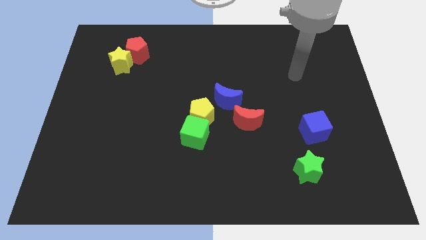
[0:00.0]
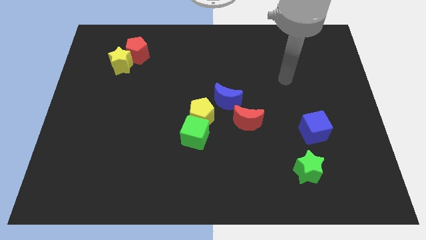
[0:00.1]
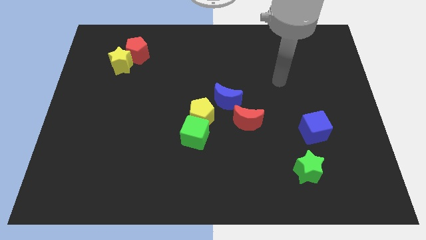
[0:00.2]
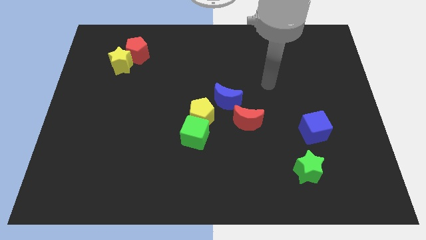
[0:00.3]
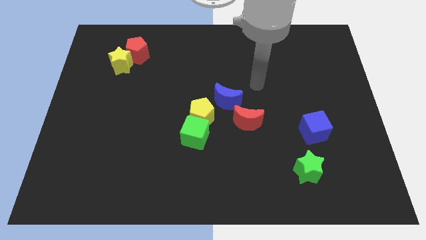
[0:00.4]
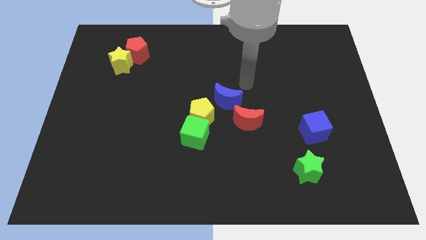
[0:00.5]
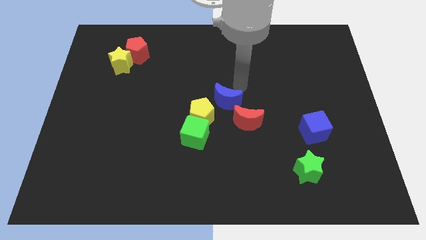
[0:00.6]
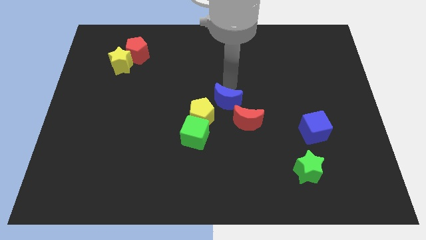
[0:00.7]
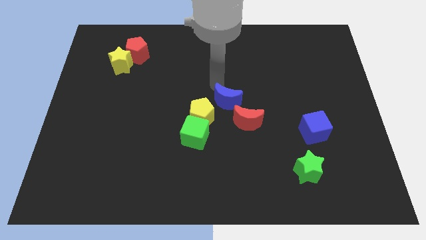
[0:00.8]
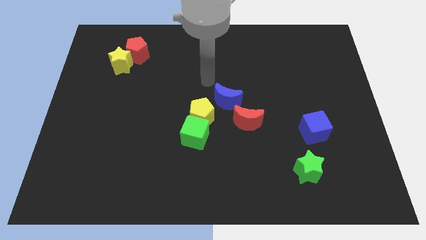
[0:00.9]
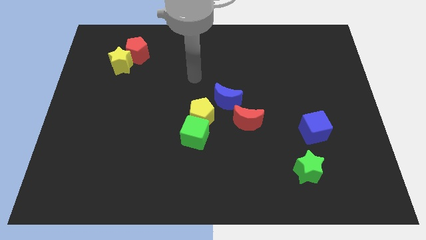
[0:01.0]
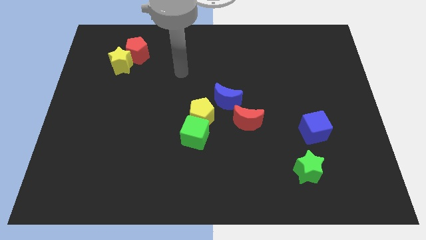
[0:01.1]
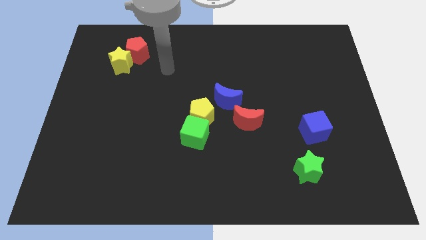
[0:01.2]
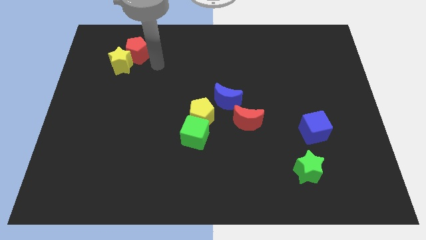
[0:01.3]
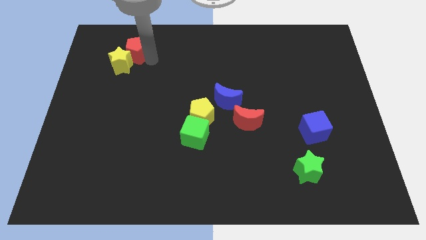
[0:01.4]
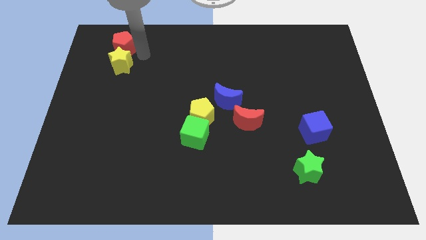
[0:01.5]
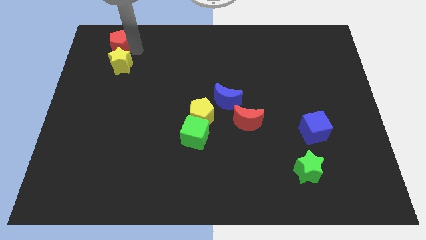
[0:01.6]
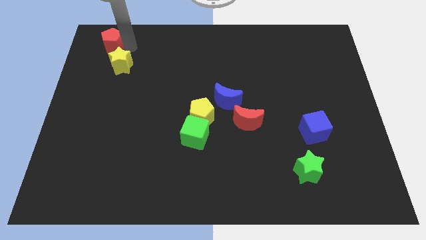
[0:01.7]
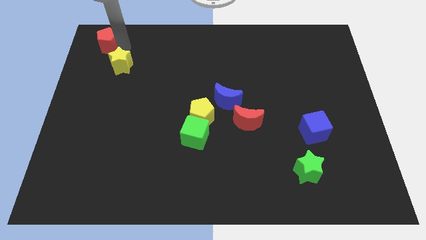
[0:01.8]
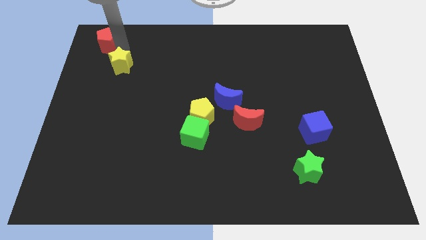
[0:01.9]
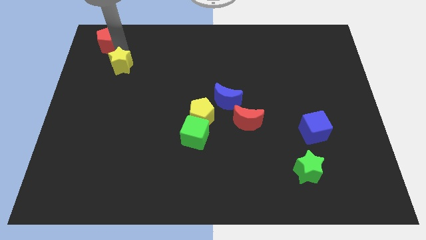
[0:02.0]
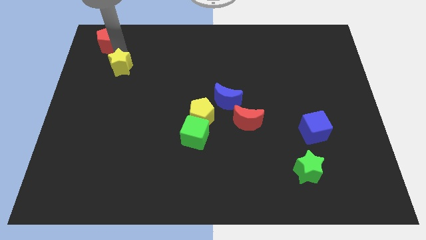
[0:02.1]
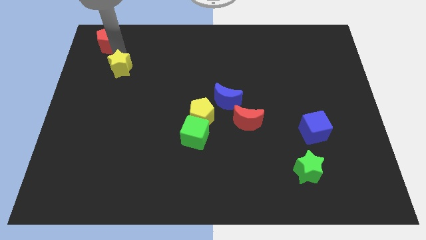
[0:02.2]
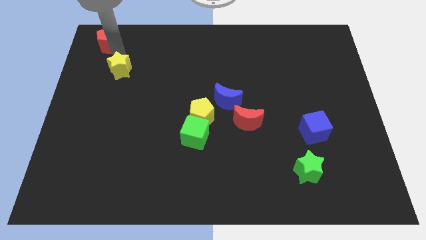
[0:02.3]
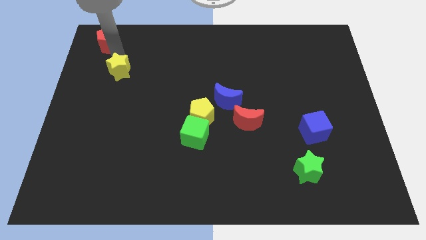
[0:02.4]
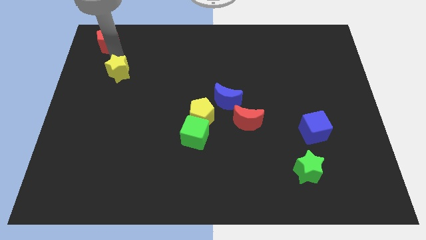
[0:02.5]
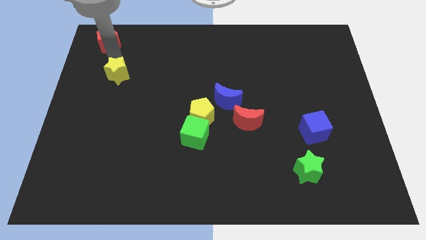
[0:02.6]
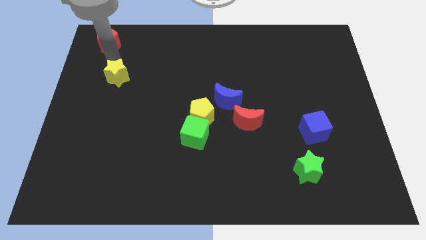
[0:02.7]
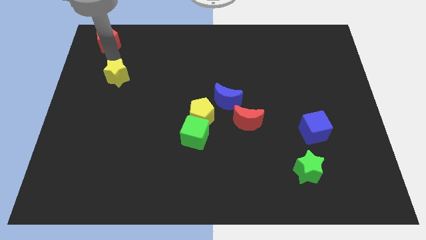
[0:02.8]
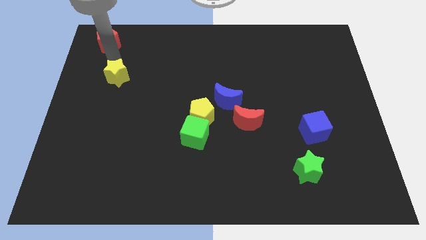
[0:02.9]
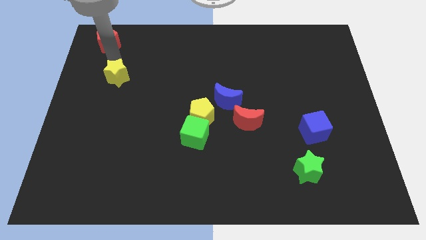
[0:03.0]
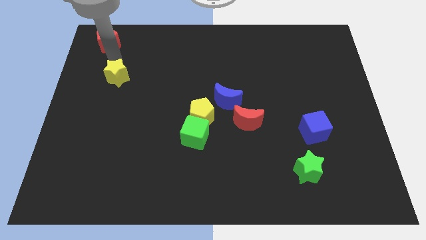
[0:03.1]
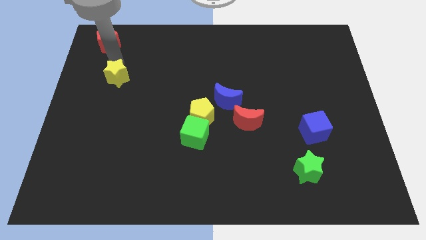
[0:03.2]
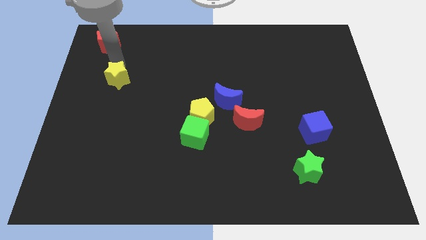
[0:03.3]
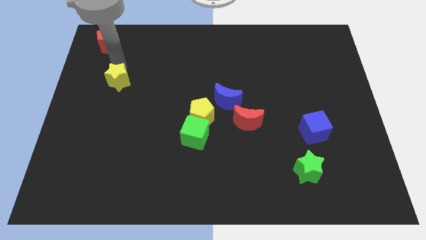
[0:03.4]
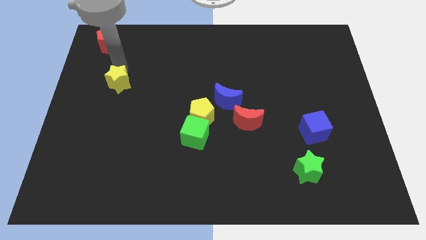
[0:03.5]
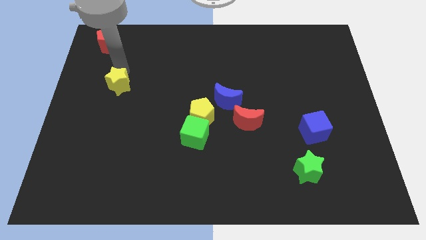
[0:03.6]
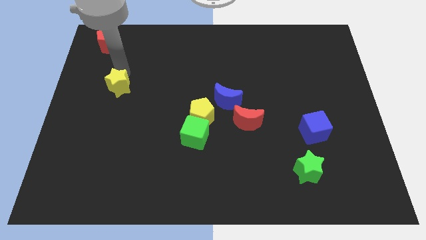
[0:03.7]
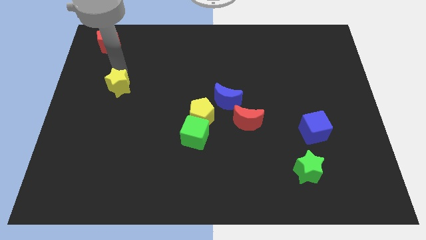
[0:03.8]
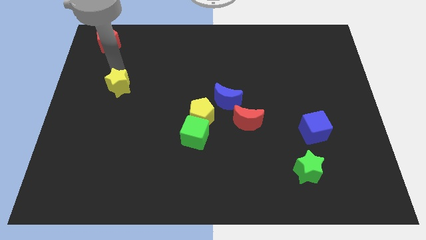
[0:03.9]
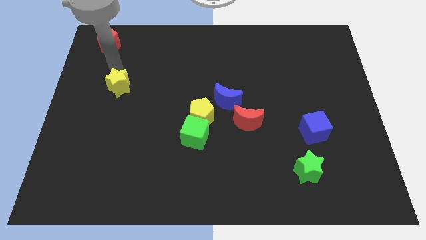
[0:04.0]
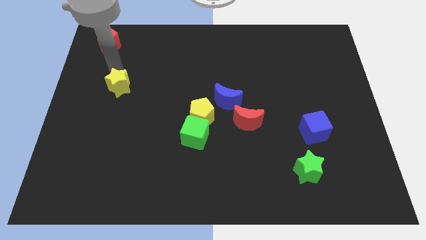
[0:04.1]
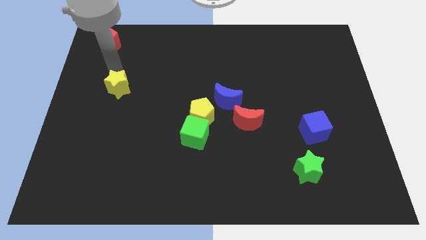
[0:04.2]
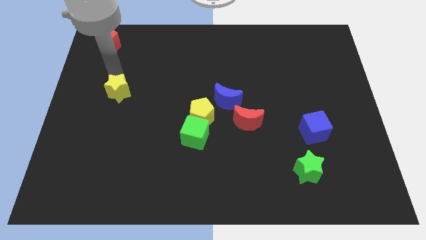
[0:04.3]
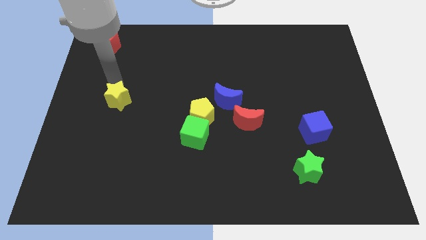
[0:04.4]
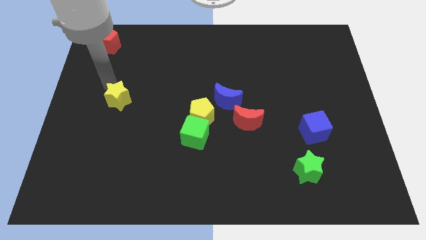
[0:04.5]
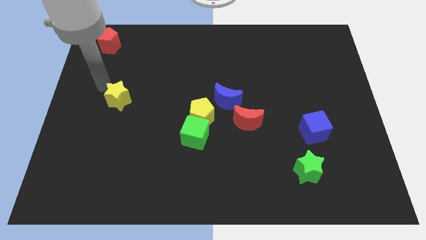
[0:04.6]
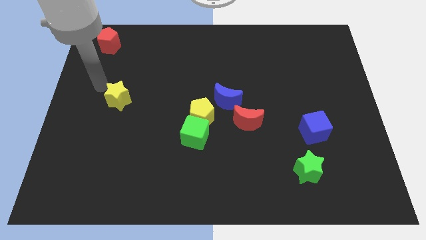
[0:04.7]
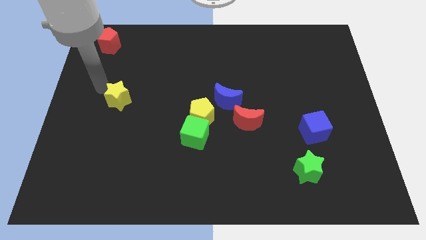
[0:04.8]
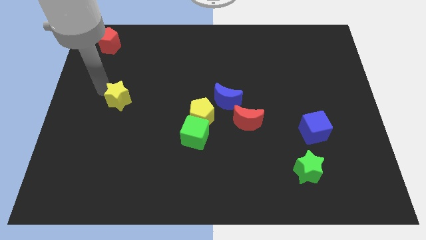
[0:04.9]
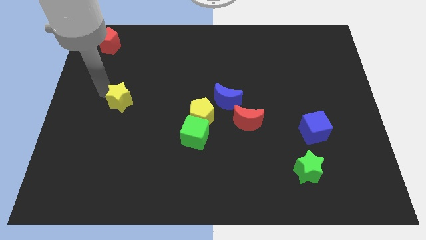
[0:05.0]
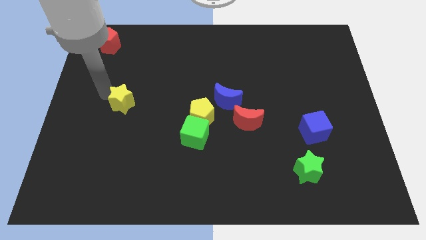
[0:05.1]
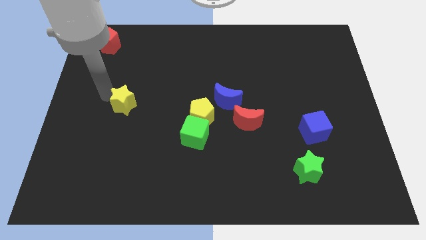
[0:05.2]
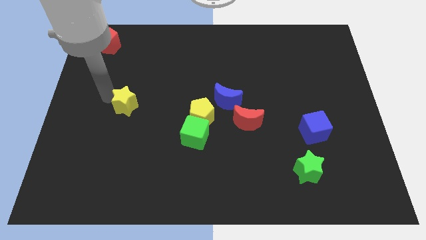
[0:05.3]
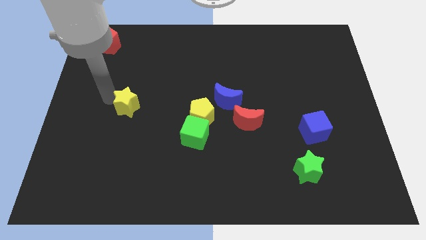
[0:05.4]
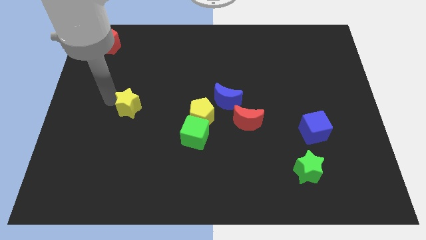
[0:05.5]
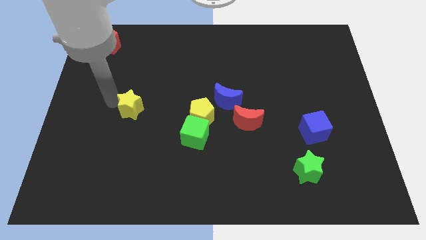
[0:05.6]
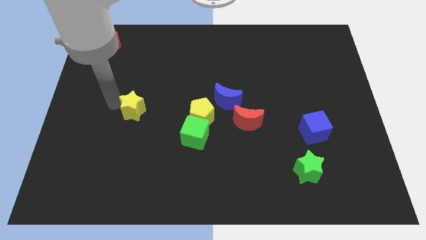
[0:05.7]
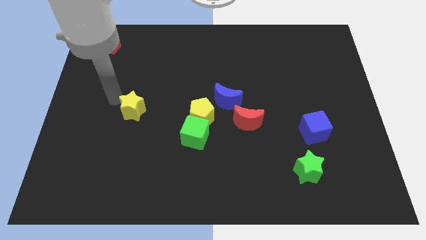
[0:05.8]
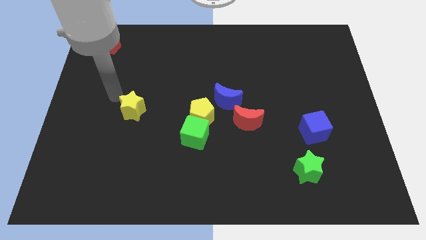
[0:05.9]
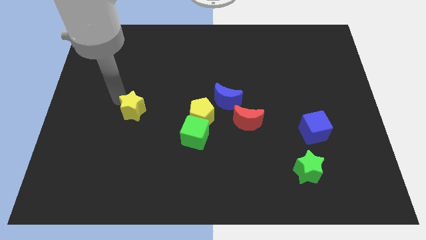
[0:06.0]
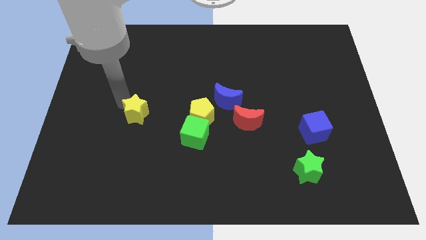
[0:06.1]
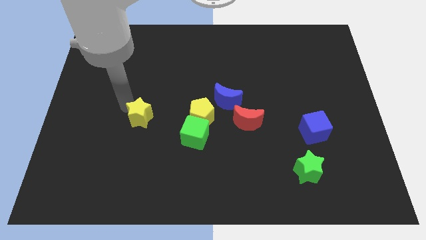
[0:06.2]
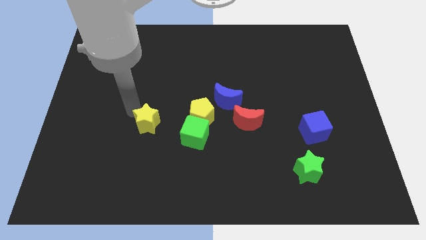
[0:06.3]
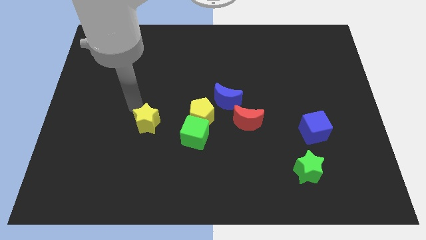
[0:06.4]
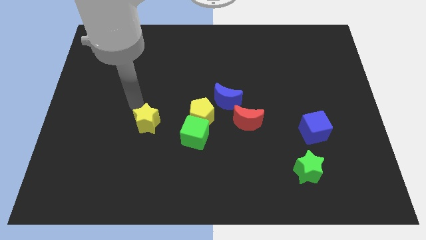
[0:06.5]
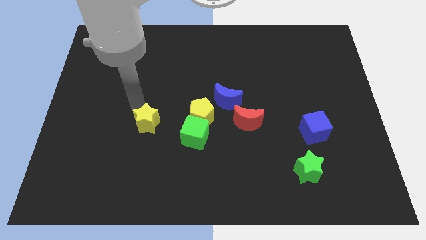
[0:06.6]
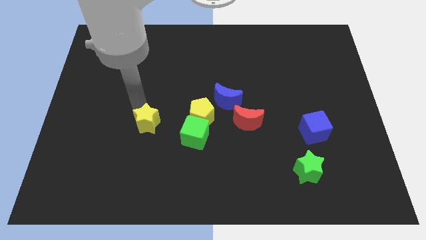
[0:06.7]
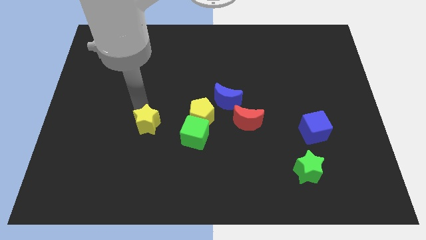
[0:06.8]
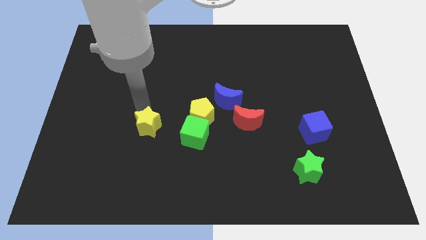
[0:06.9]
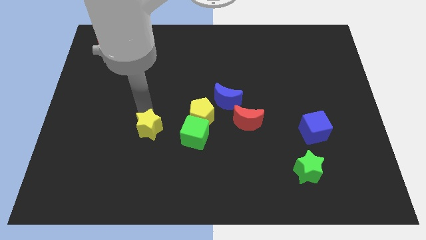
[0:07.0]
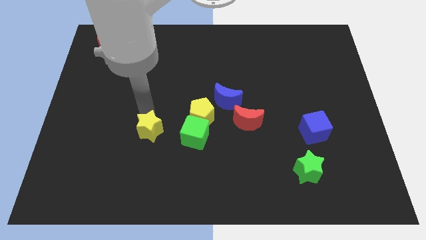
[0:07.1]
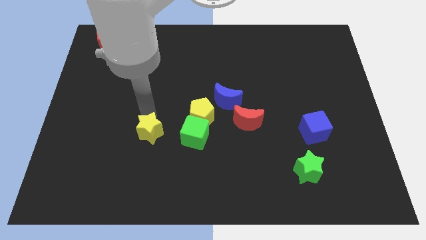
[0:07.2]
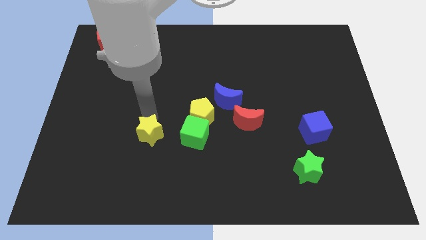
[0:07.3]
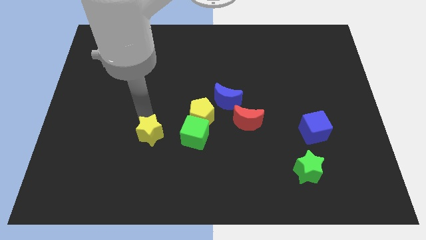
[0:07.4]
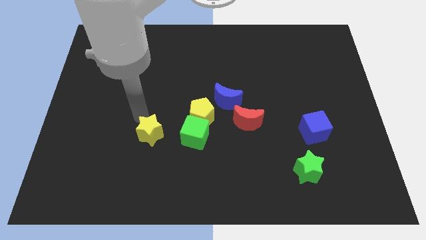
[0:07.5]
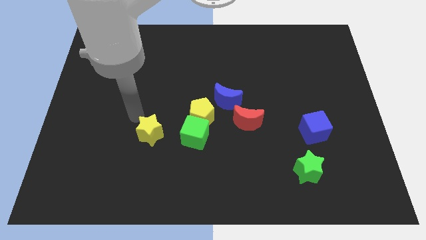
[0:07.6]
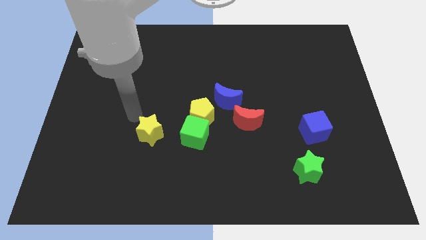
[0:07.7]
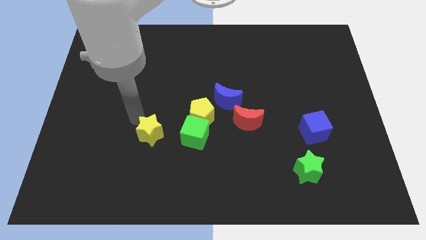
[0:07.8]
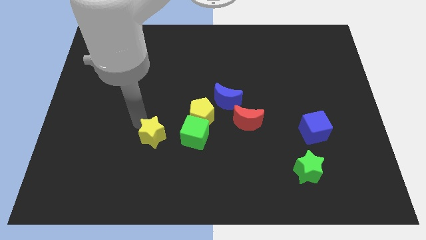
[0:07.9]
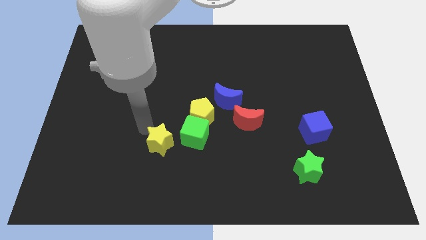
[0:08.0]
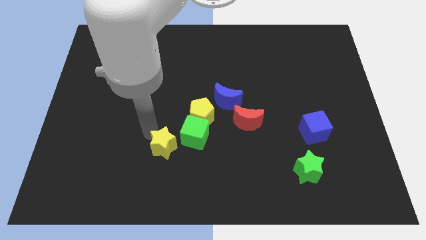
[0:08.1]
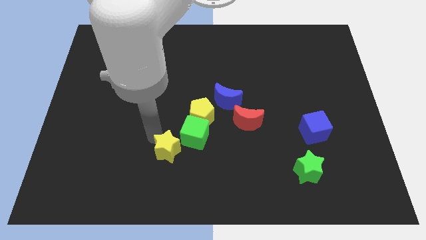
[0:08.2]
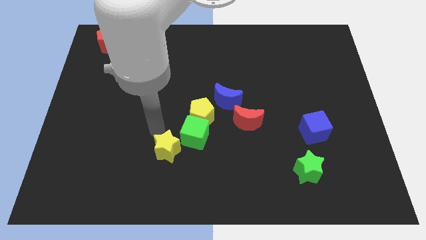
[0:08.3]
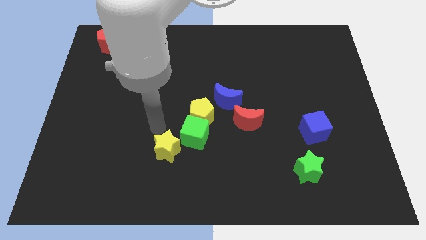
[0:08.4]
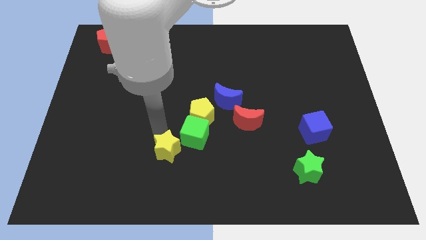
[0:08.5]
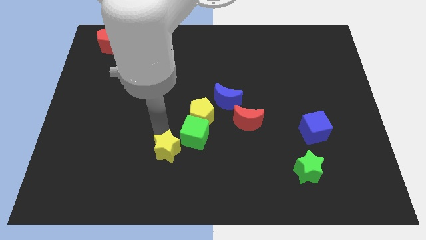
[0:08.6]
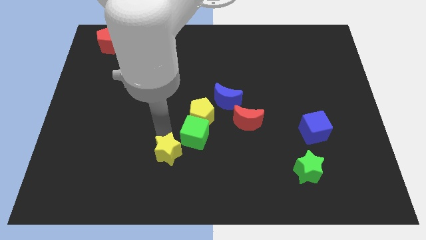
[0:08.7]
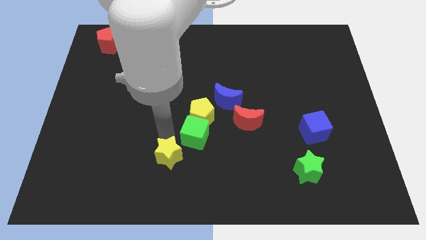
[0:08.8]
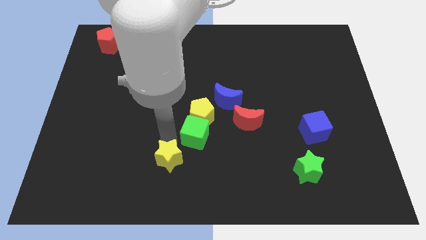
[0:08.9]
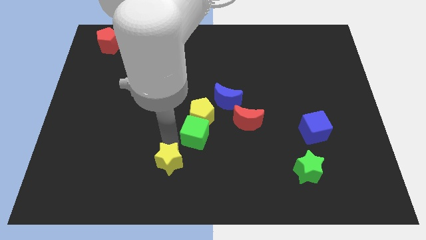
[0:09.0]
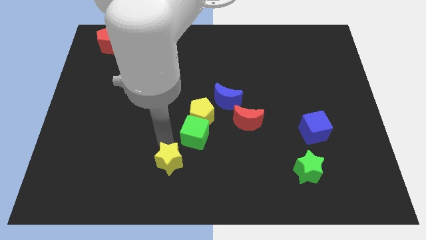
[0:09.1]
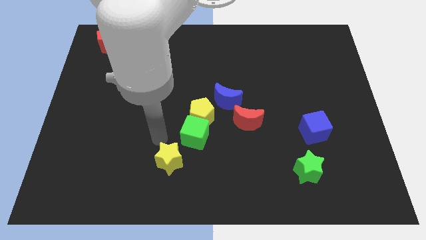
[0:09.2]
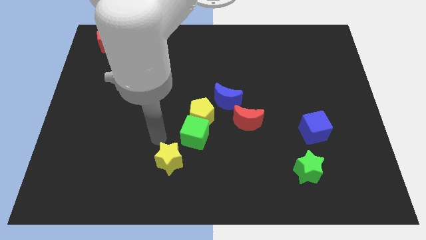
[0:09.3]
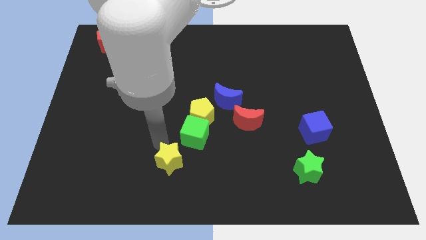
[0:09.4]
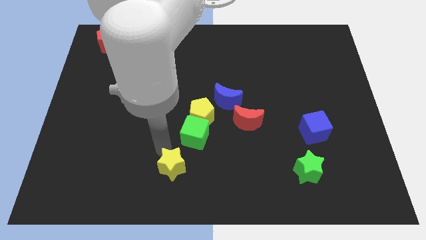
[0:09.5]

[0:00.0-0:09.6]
push the yellow star to the bottom side
